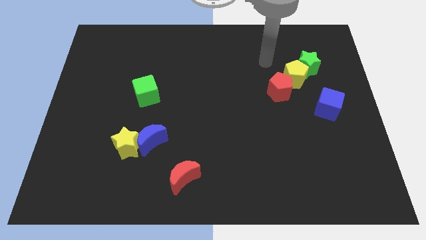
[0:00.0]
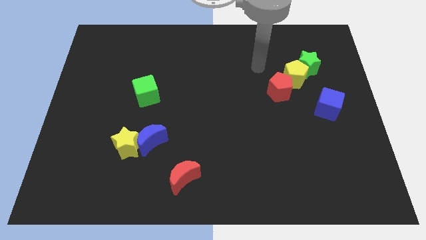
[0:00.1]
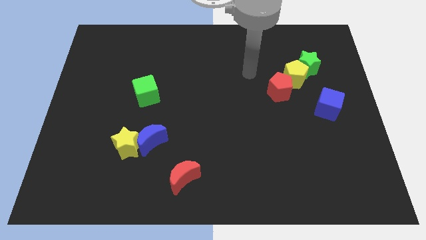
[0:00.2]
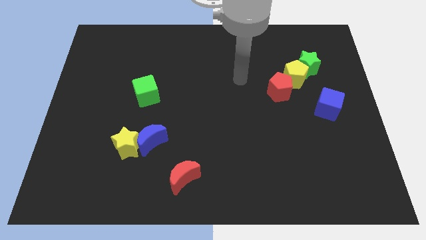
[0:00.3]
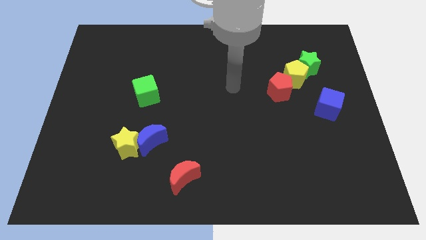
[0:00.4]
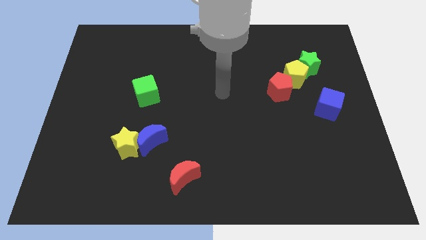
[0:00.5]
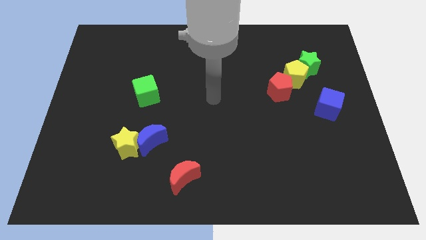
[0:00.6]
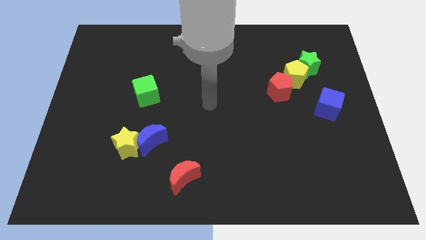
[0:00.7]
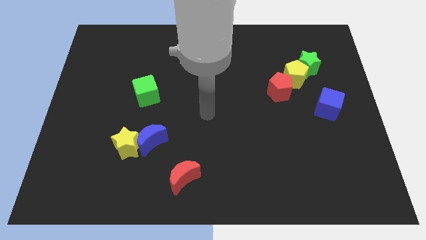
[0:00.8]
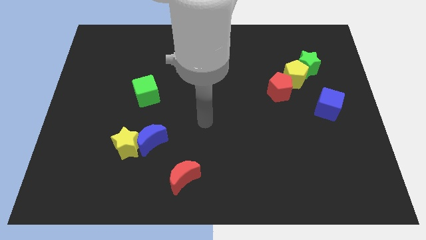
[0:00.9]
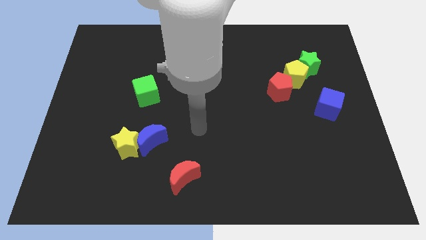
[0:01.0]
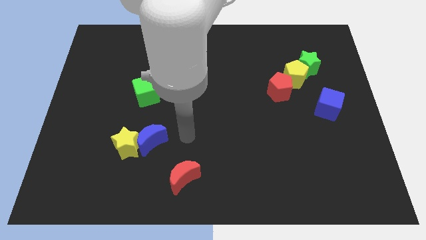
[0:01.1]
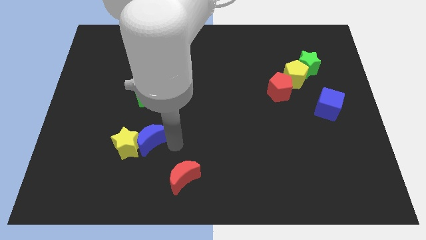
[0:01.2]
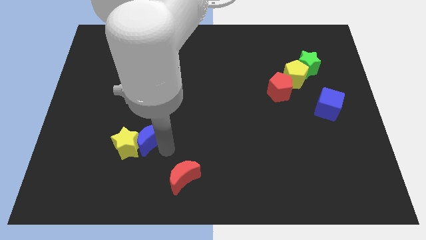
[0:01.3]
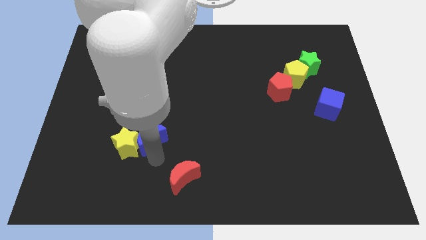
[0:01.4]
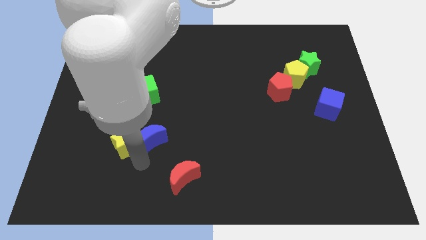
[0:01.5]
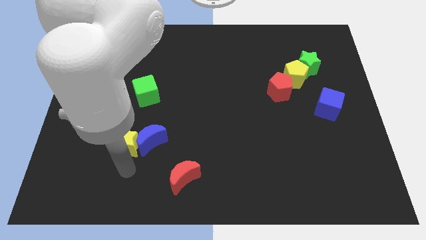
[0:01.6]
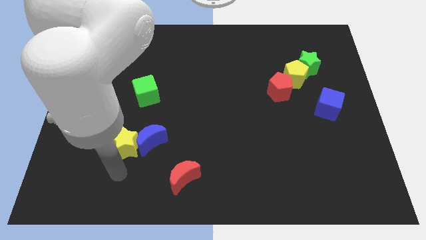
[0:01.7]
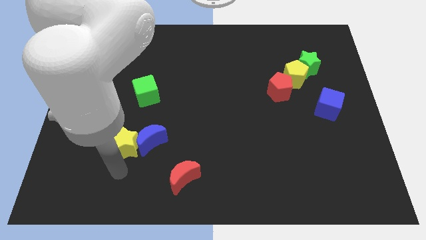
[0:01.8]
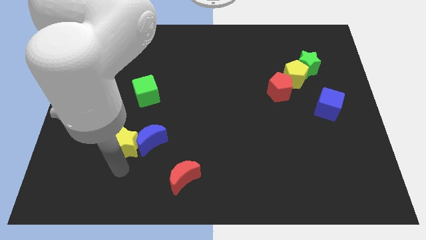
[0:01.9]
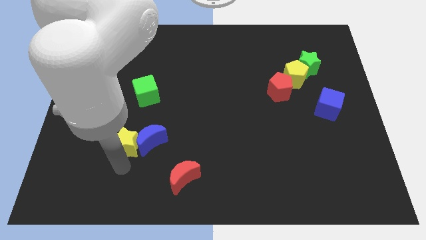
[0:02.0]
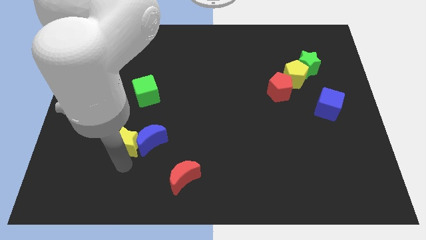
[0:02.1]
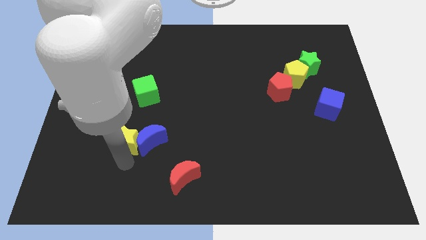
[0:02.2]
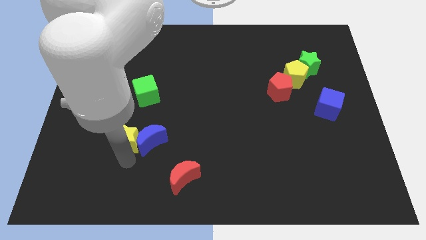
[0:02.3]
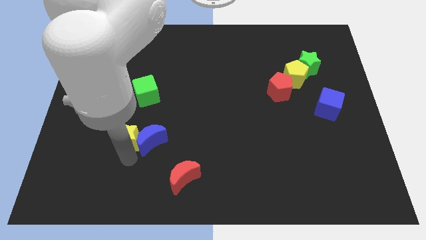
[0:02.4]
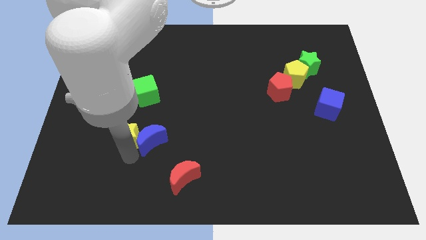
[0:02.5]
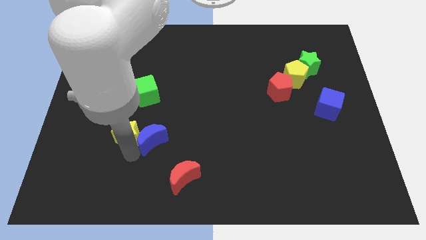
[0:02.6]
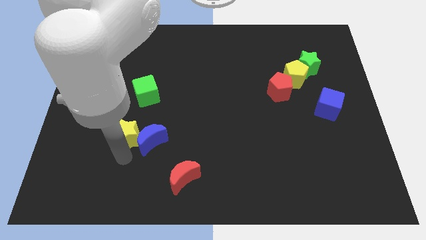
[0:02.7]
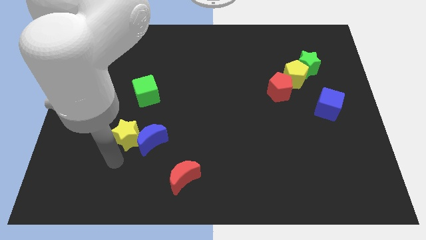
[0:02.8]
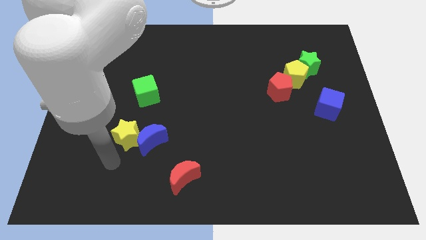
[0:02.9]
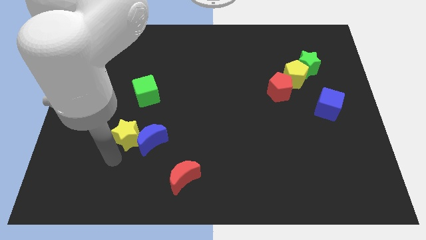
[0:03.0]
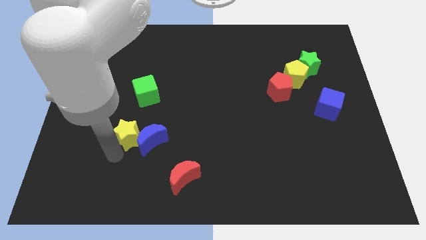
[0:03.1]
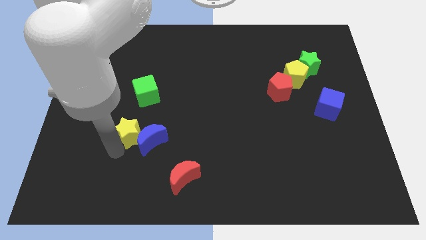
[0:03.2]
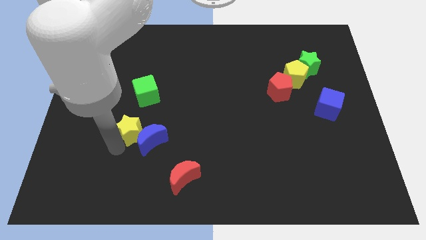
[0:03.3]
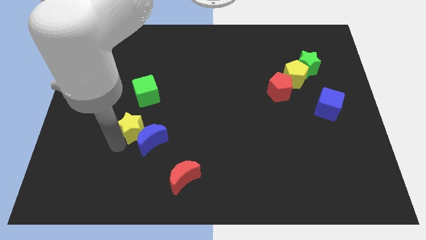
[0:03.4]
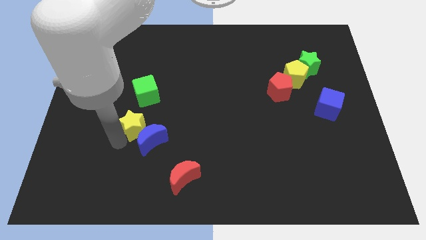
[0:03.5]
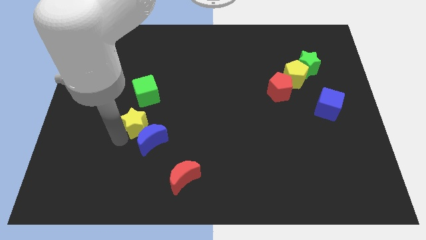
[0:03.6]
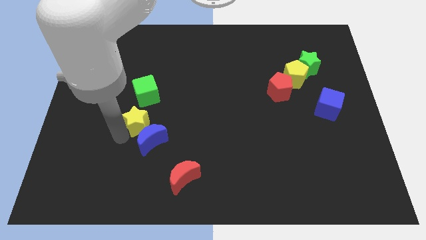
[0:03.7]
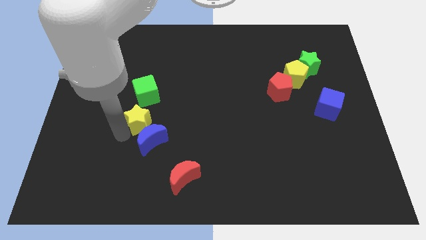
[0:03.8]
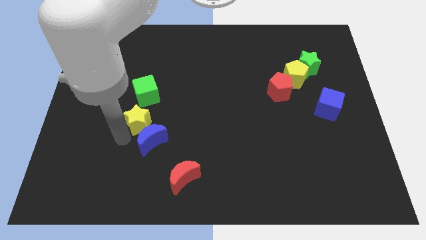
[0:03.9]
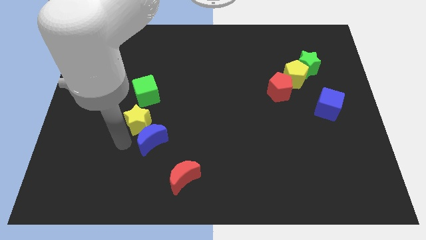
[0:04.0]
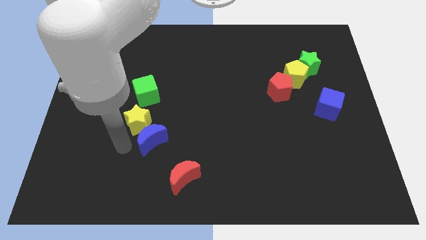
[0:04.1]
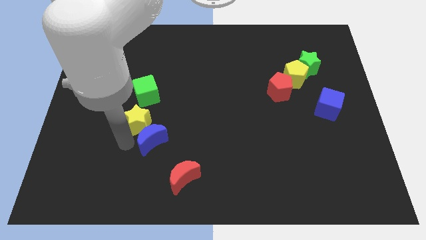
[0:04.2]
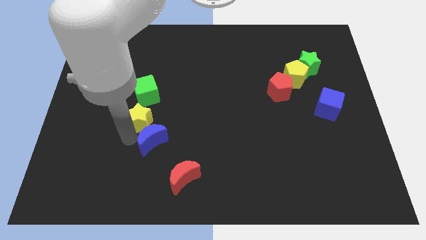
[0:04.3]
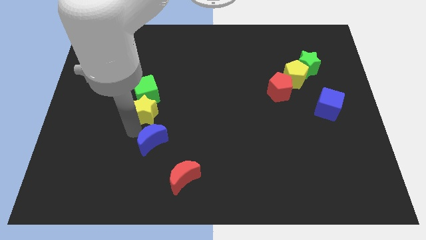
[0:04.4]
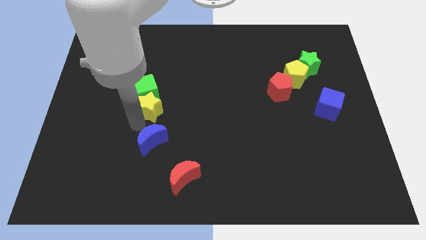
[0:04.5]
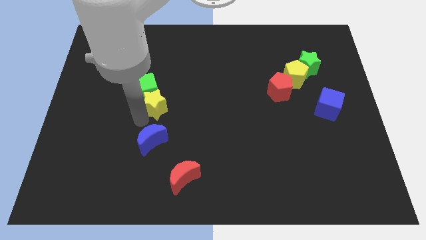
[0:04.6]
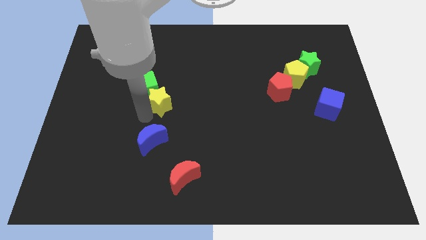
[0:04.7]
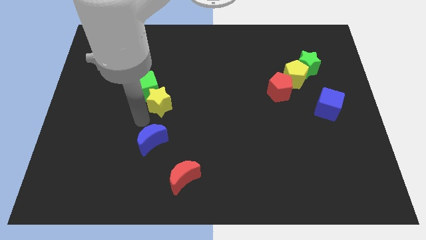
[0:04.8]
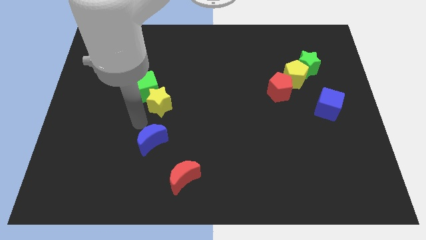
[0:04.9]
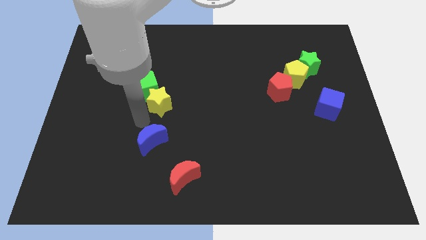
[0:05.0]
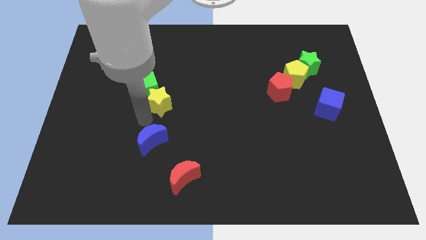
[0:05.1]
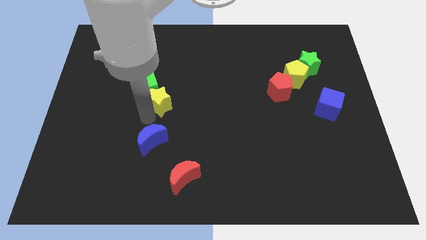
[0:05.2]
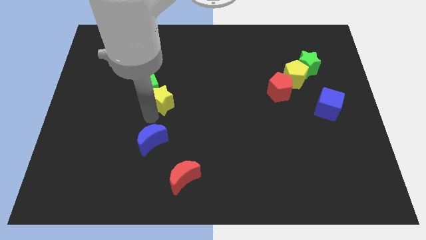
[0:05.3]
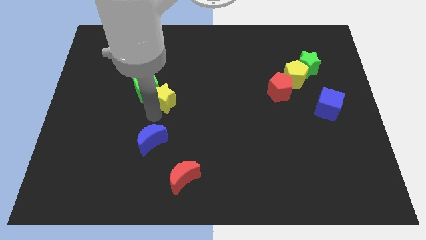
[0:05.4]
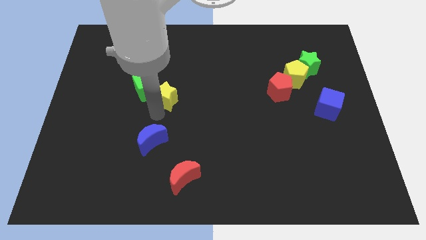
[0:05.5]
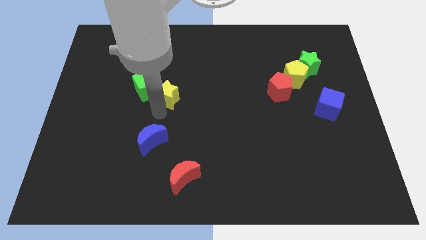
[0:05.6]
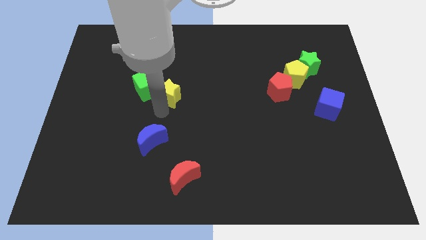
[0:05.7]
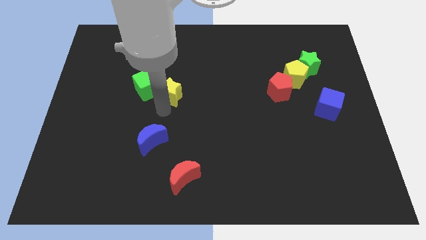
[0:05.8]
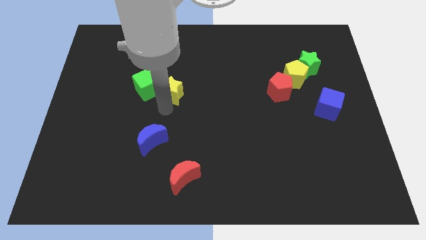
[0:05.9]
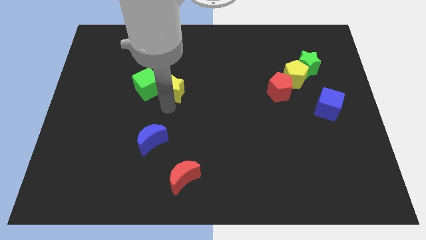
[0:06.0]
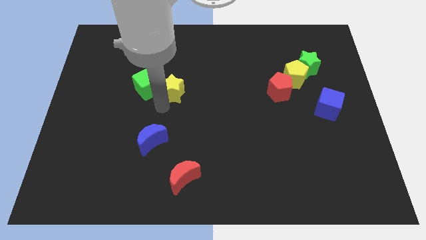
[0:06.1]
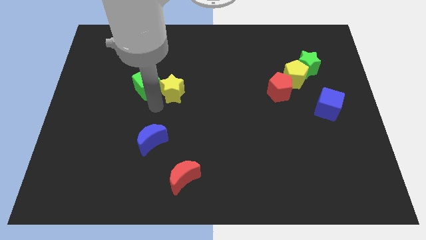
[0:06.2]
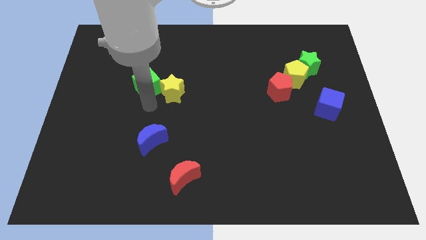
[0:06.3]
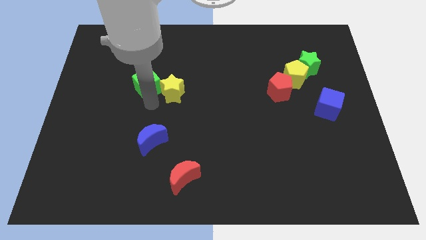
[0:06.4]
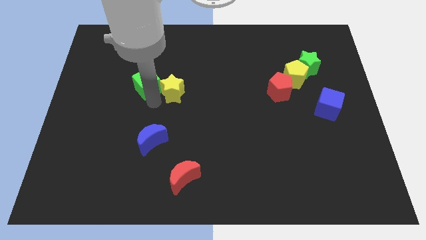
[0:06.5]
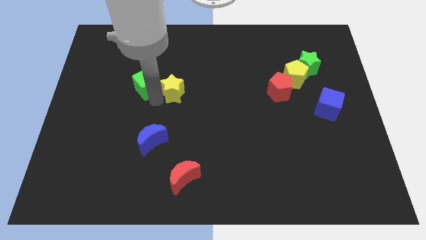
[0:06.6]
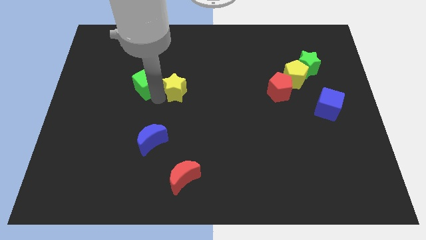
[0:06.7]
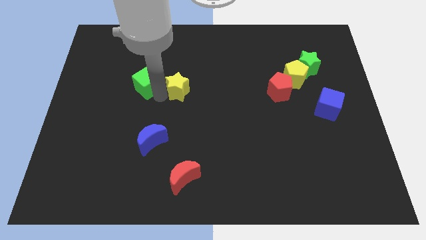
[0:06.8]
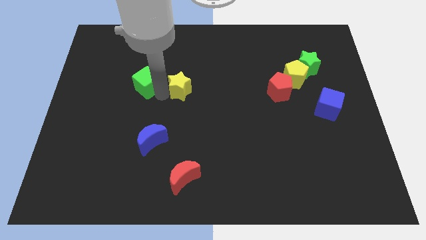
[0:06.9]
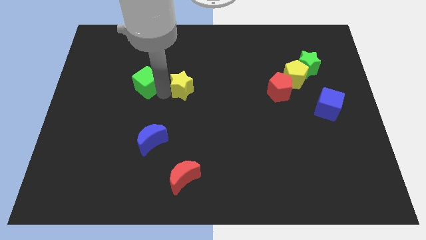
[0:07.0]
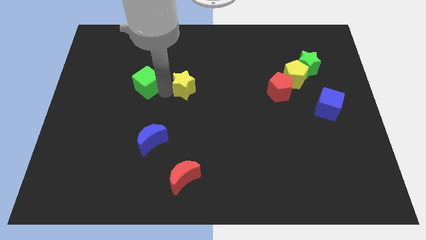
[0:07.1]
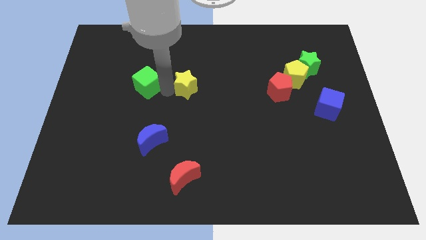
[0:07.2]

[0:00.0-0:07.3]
push the yellow star up and then to the right

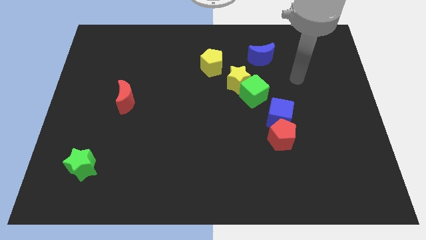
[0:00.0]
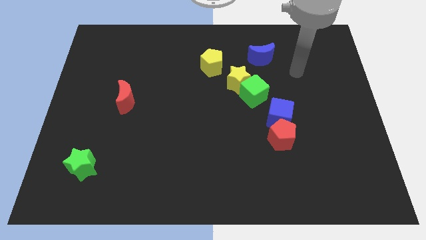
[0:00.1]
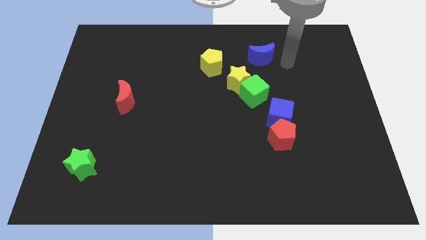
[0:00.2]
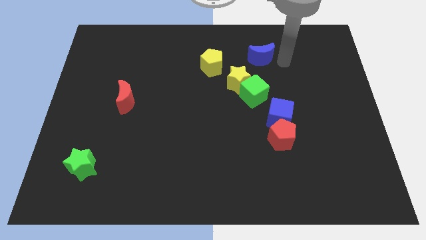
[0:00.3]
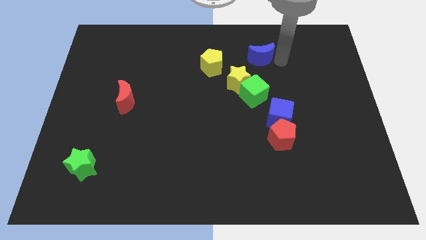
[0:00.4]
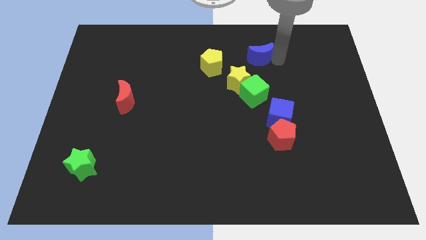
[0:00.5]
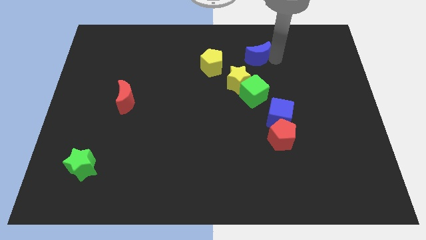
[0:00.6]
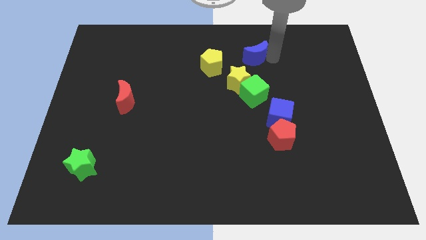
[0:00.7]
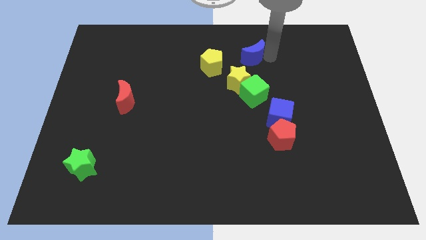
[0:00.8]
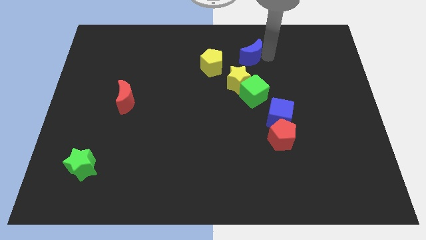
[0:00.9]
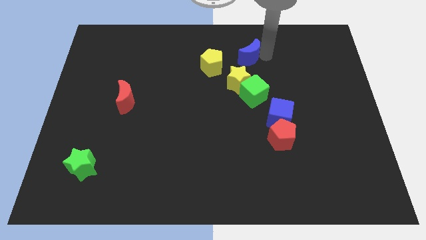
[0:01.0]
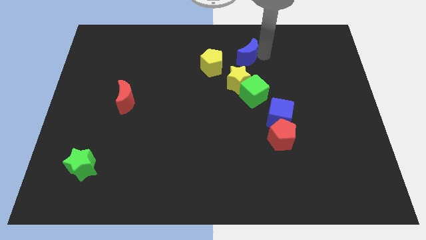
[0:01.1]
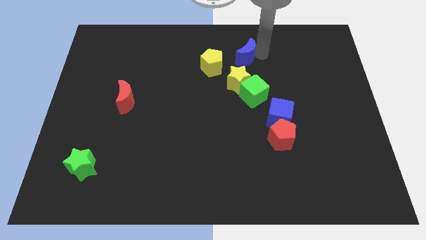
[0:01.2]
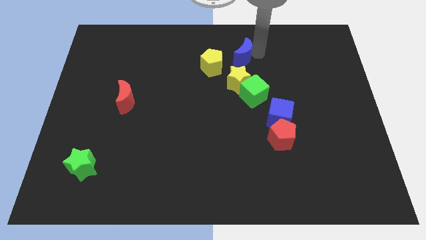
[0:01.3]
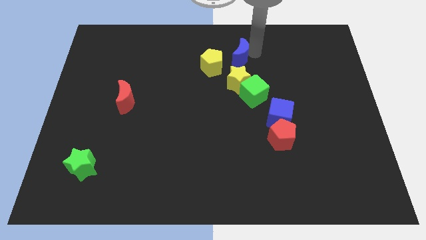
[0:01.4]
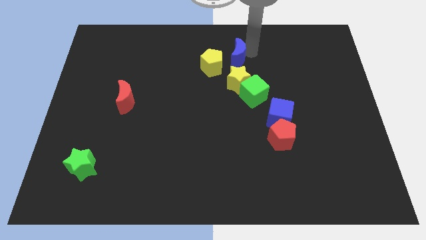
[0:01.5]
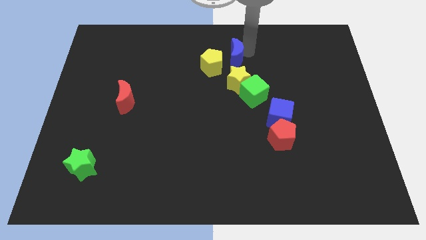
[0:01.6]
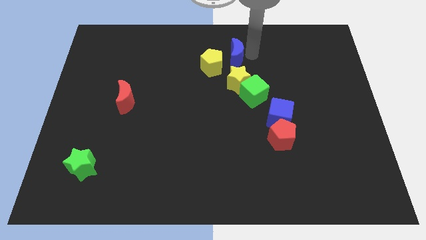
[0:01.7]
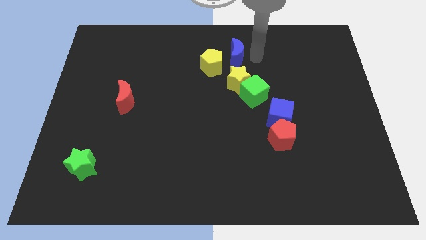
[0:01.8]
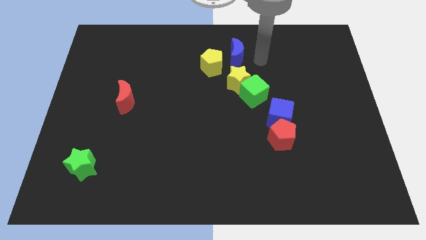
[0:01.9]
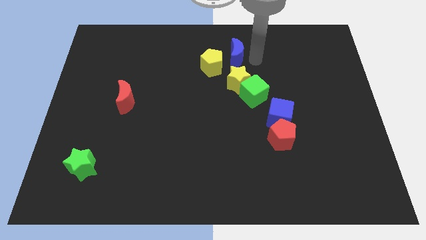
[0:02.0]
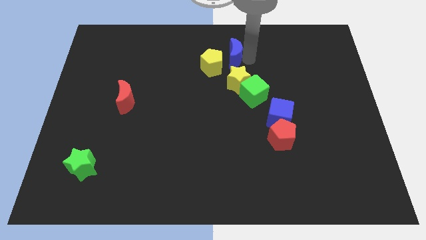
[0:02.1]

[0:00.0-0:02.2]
slightly slide the blue moon to the left
